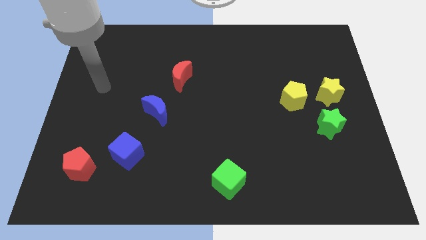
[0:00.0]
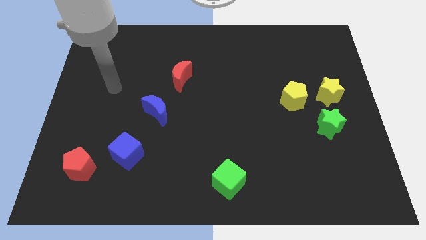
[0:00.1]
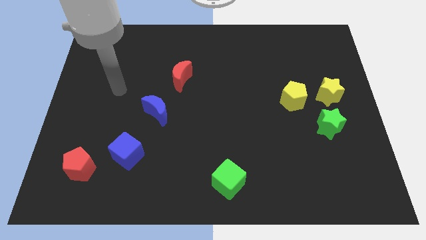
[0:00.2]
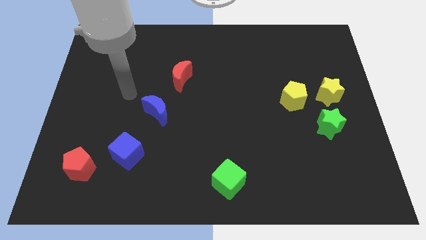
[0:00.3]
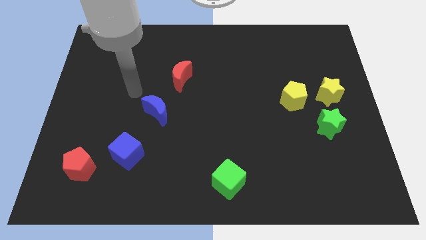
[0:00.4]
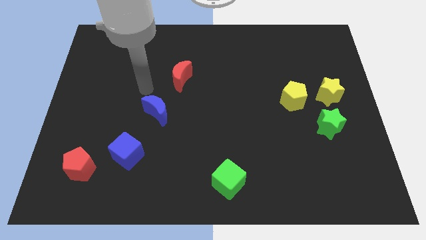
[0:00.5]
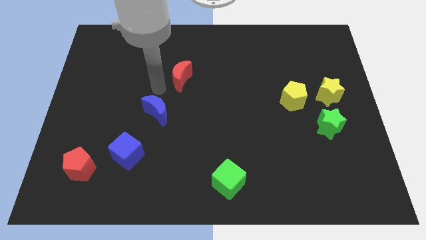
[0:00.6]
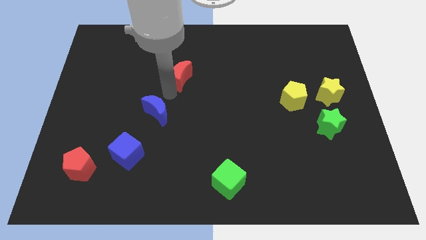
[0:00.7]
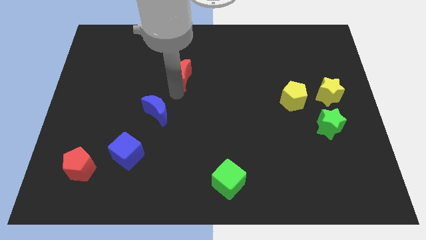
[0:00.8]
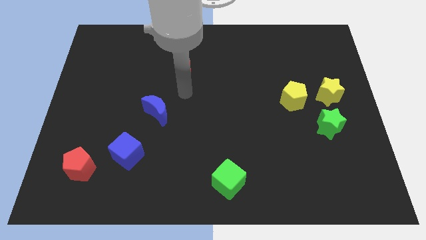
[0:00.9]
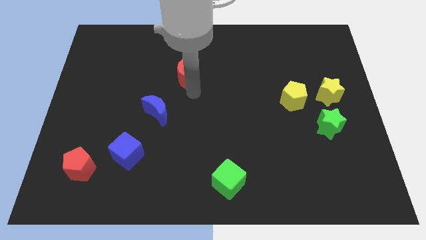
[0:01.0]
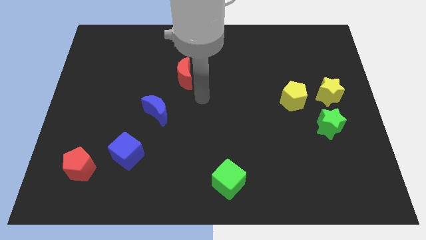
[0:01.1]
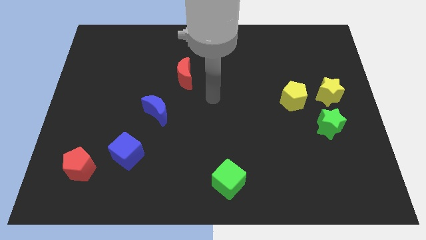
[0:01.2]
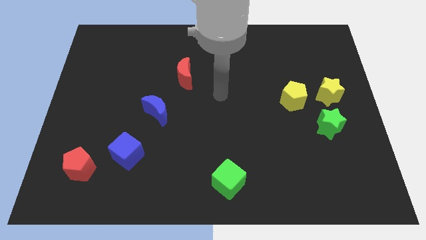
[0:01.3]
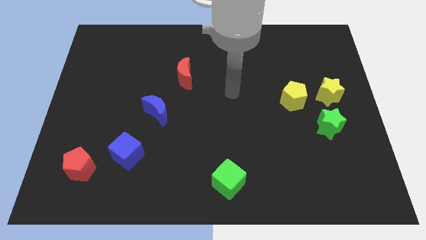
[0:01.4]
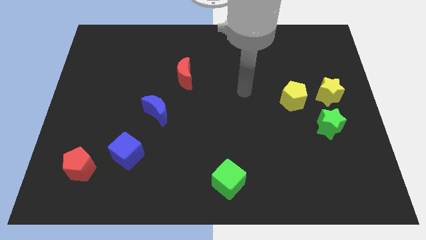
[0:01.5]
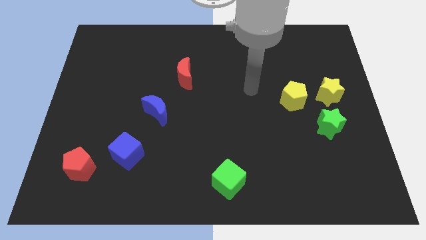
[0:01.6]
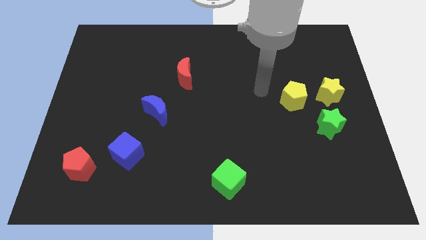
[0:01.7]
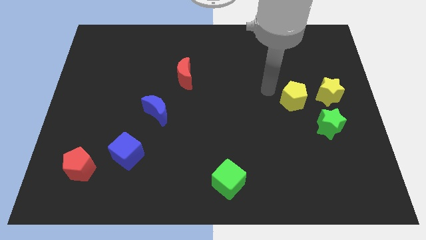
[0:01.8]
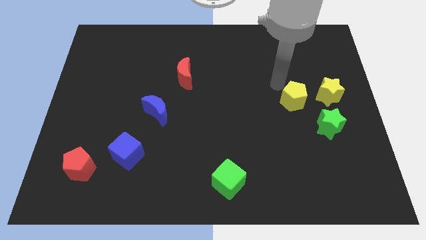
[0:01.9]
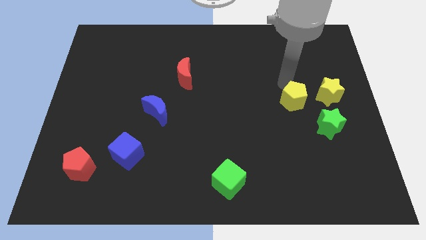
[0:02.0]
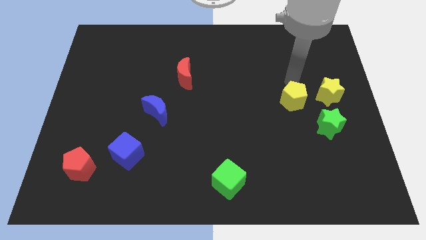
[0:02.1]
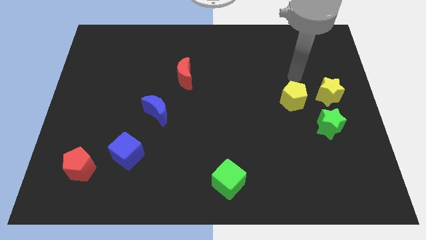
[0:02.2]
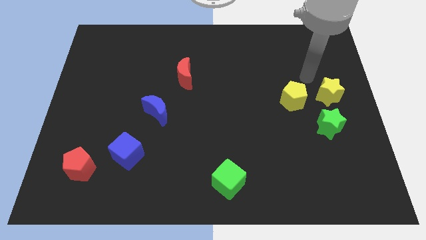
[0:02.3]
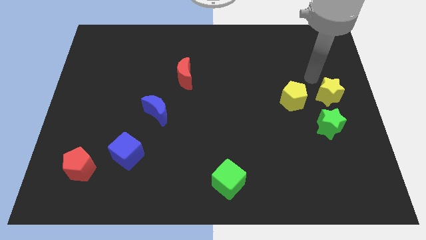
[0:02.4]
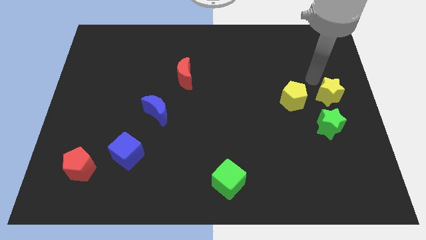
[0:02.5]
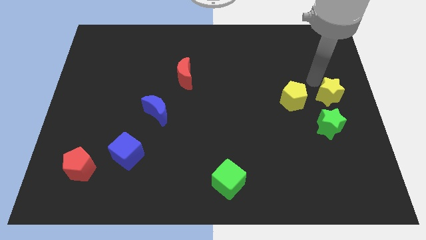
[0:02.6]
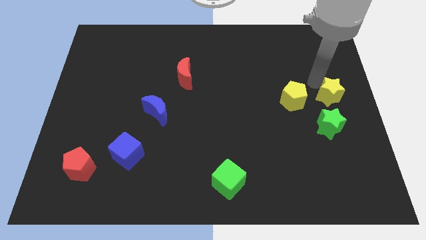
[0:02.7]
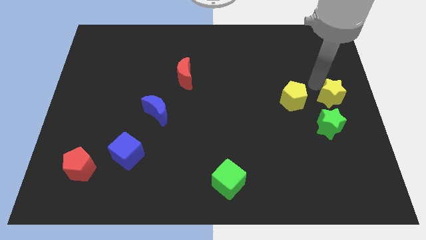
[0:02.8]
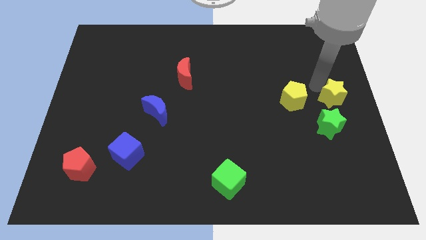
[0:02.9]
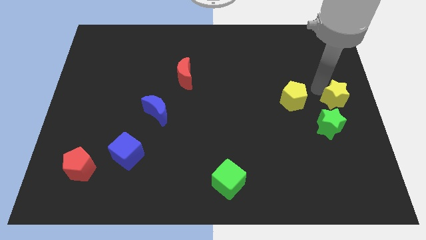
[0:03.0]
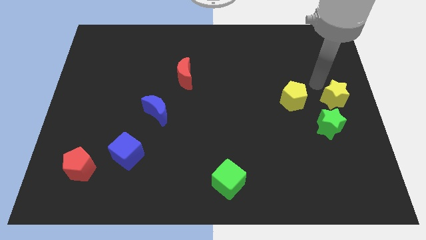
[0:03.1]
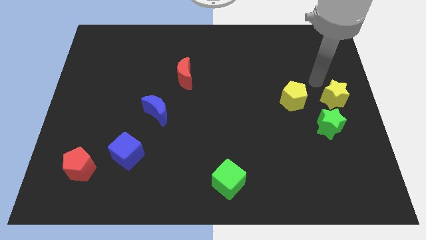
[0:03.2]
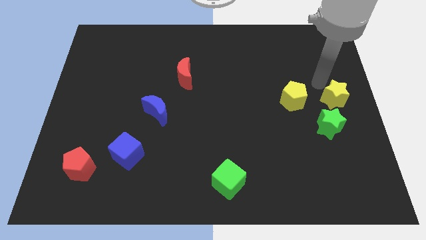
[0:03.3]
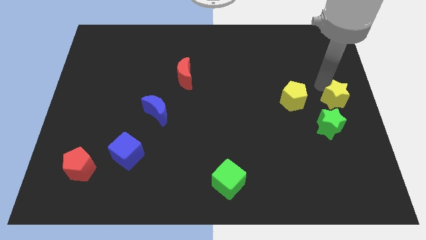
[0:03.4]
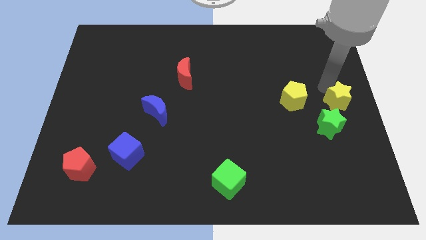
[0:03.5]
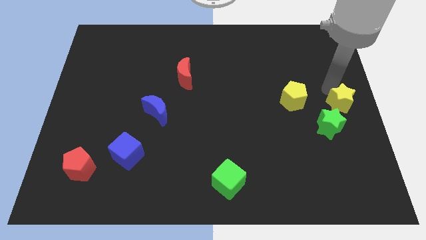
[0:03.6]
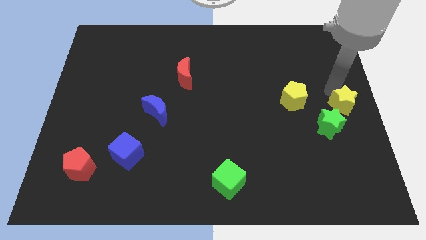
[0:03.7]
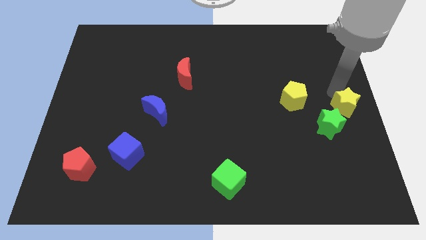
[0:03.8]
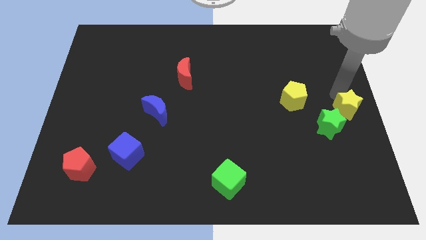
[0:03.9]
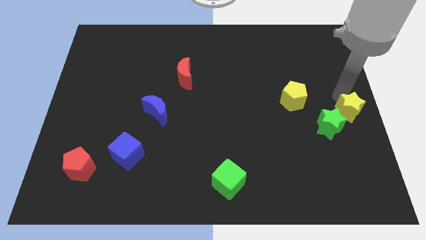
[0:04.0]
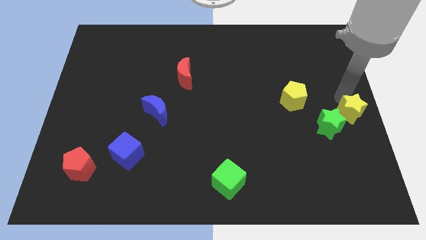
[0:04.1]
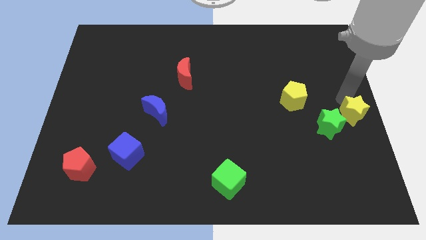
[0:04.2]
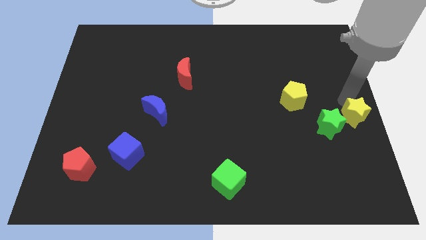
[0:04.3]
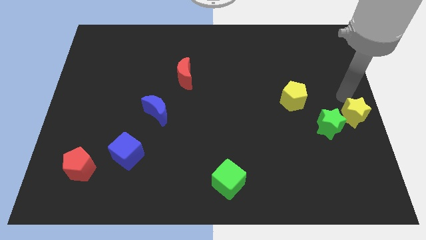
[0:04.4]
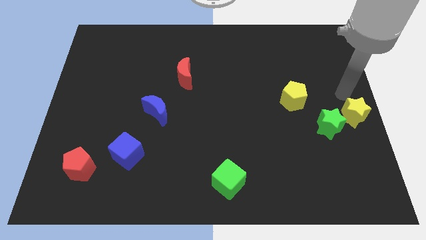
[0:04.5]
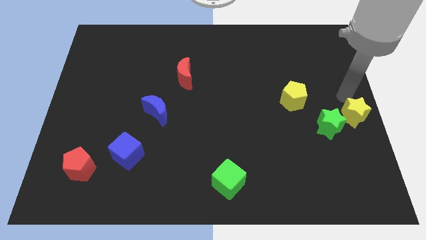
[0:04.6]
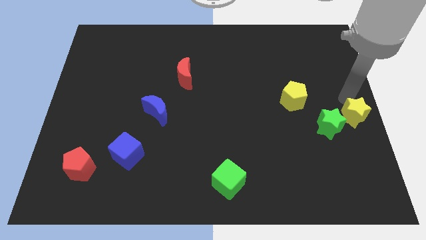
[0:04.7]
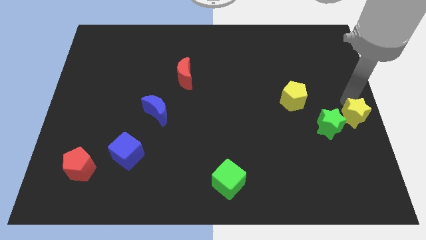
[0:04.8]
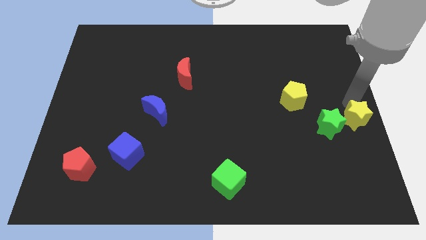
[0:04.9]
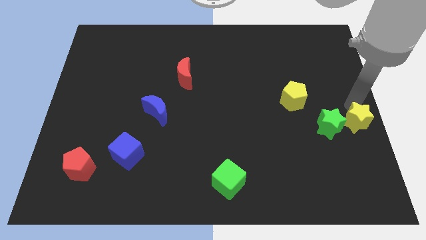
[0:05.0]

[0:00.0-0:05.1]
move the yellow star downwards a little bit

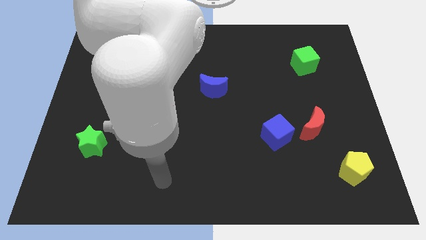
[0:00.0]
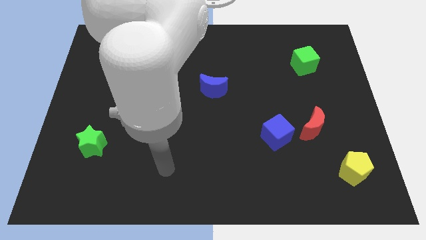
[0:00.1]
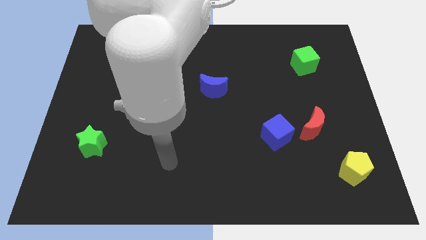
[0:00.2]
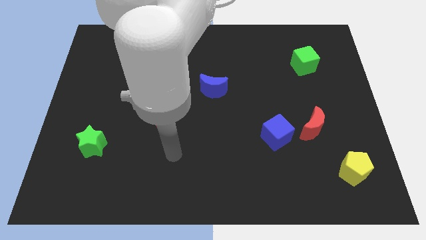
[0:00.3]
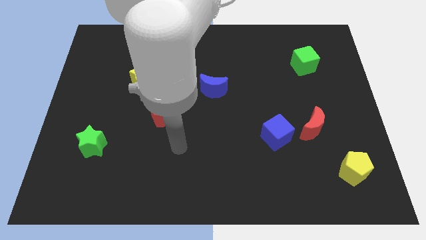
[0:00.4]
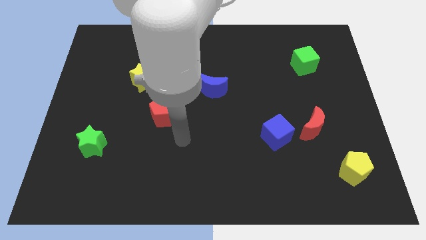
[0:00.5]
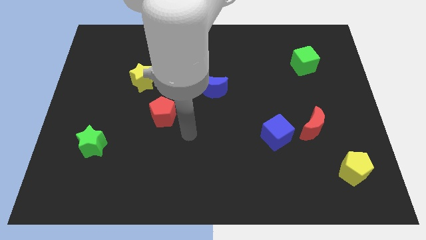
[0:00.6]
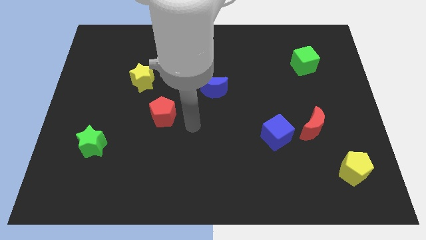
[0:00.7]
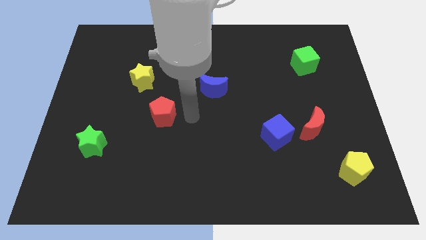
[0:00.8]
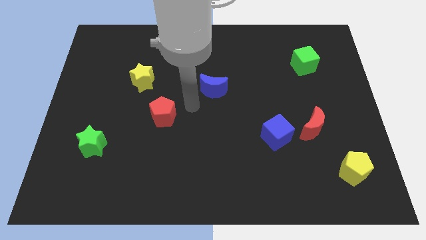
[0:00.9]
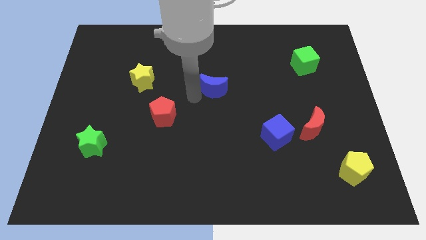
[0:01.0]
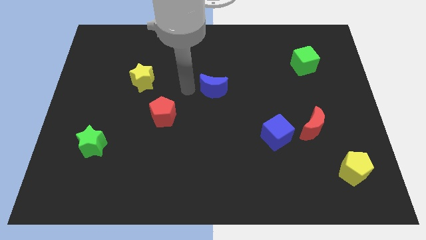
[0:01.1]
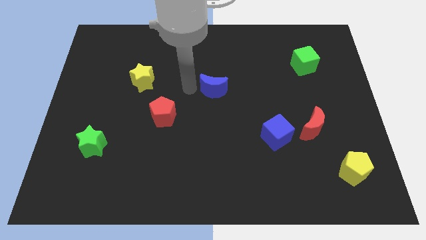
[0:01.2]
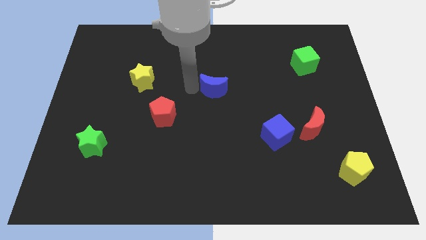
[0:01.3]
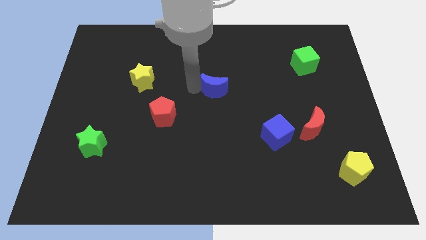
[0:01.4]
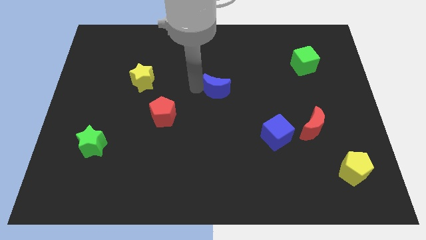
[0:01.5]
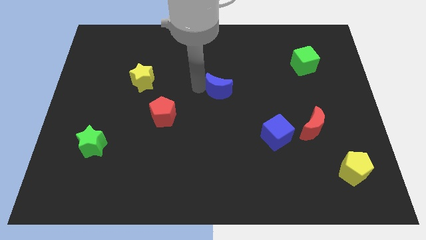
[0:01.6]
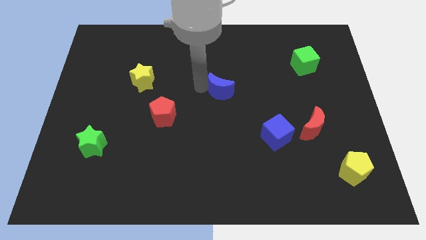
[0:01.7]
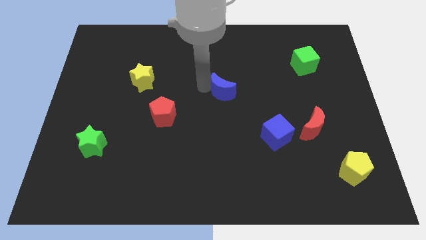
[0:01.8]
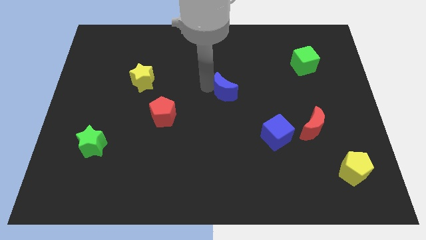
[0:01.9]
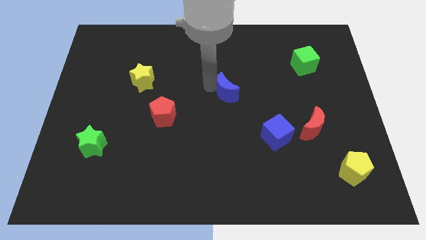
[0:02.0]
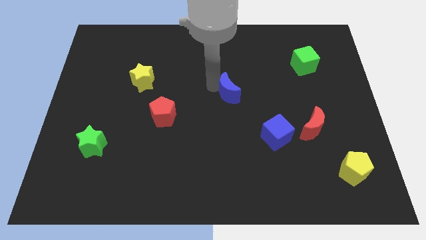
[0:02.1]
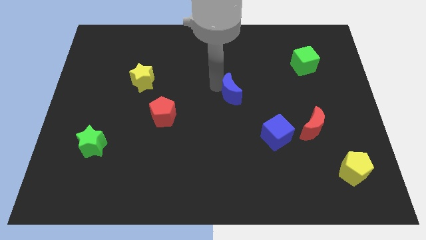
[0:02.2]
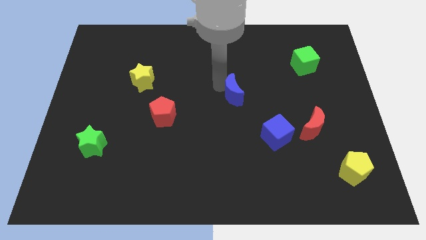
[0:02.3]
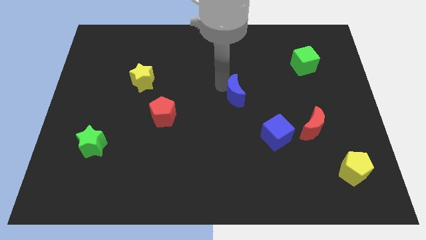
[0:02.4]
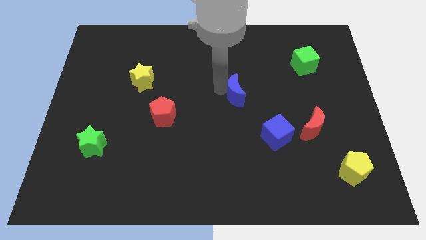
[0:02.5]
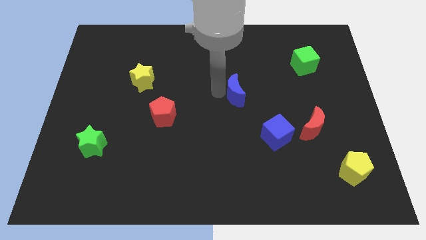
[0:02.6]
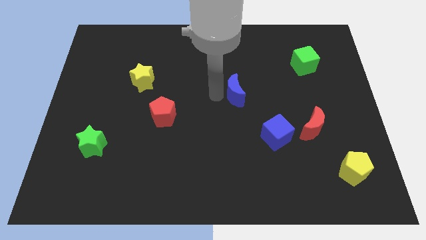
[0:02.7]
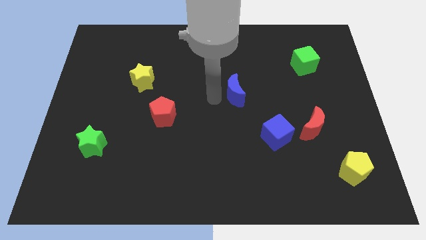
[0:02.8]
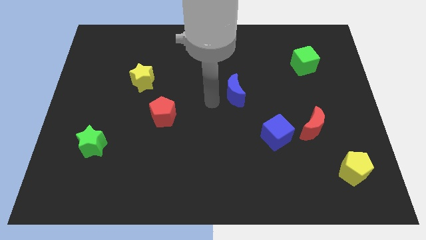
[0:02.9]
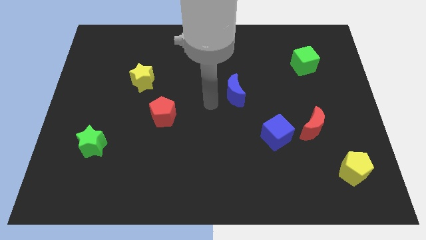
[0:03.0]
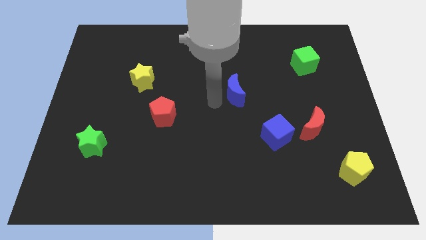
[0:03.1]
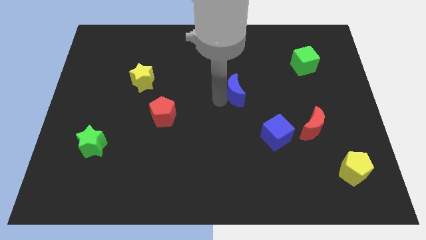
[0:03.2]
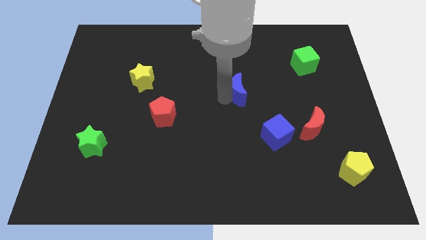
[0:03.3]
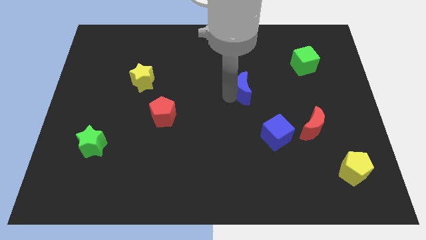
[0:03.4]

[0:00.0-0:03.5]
slightly move the blue moon right
